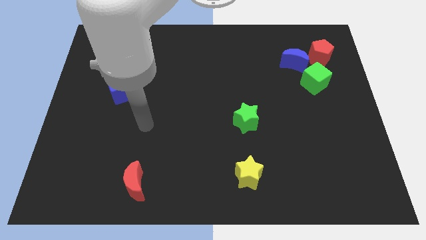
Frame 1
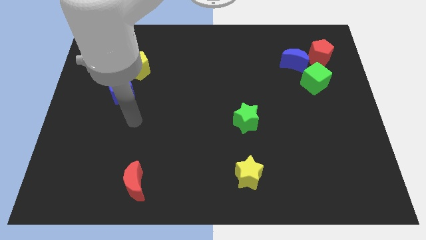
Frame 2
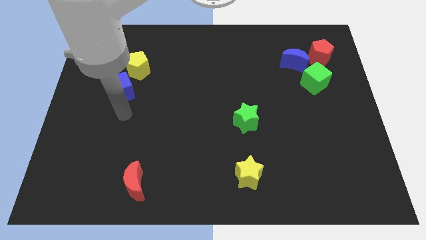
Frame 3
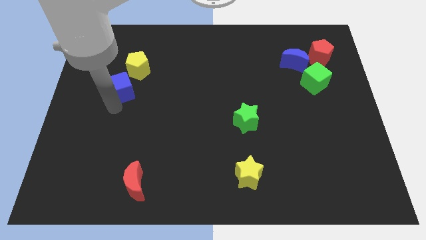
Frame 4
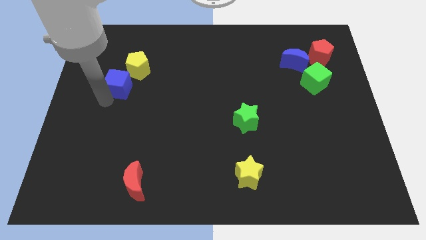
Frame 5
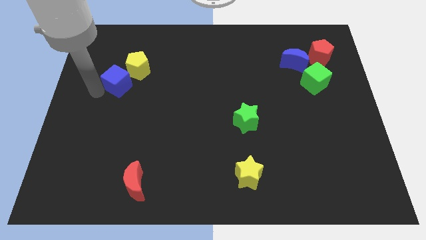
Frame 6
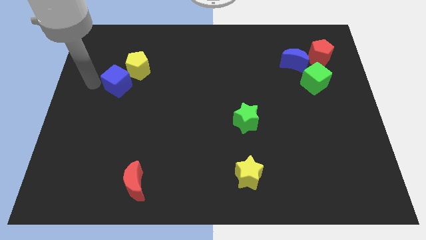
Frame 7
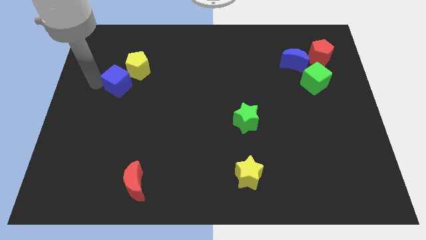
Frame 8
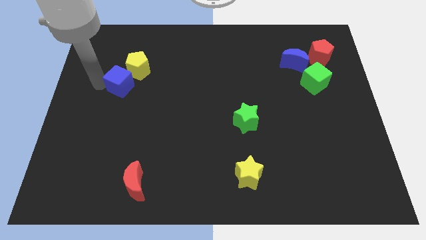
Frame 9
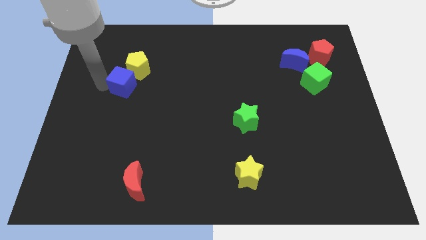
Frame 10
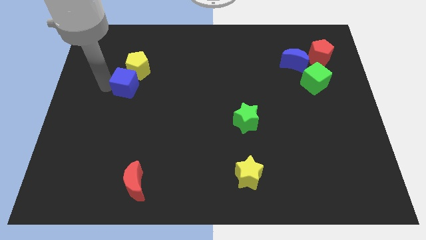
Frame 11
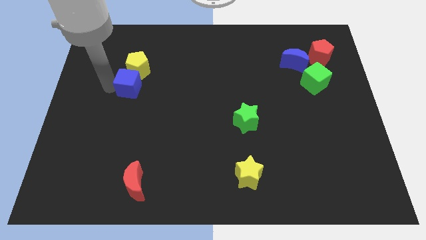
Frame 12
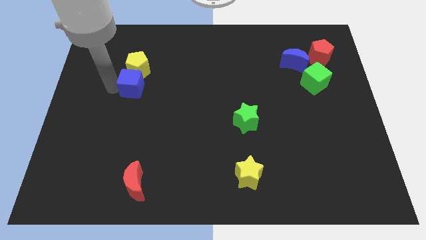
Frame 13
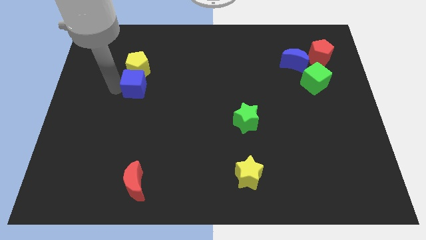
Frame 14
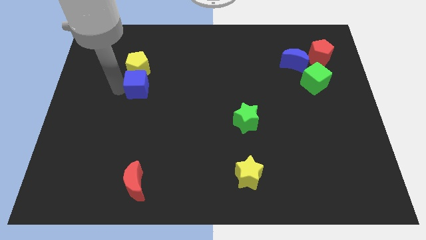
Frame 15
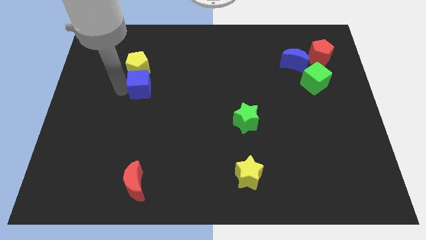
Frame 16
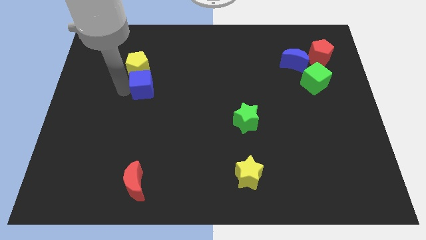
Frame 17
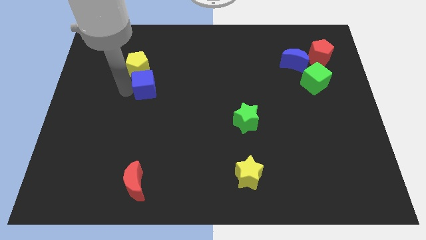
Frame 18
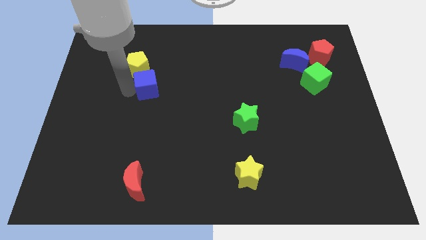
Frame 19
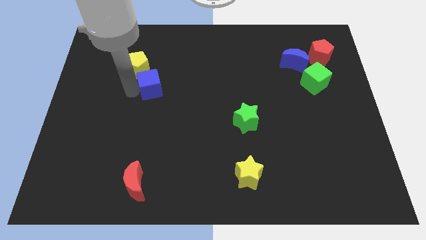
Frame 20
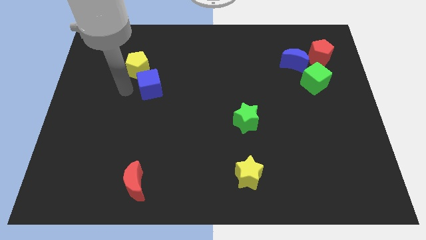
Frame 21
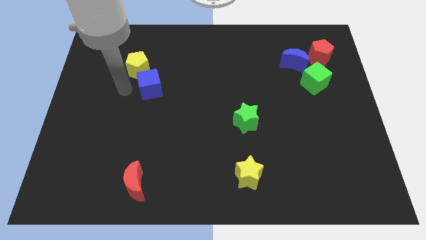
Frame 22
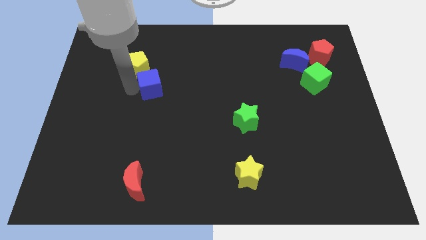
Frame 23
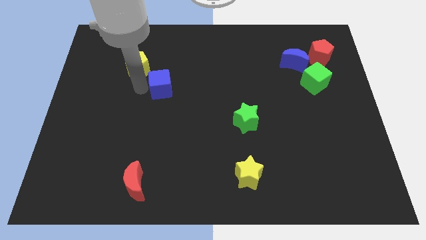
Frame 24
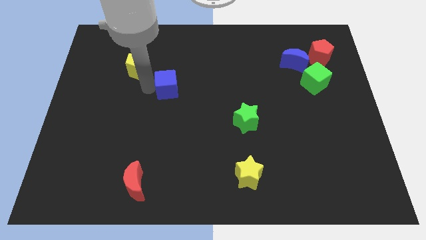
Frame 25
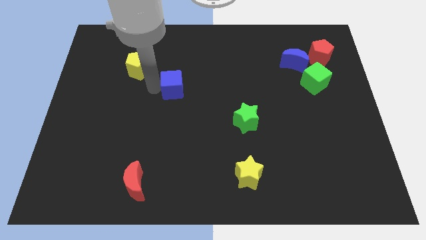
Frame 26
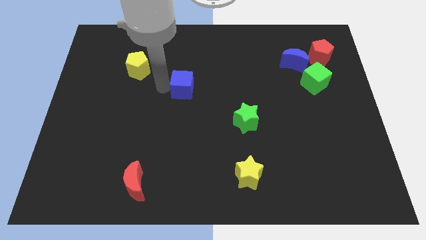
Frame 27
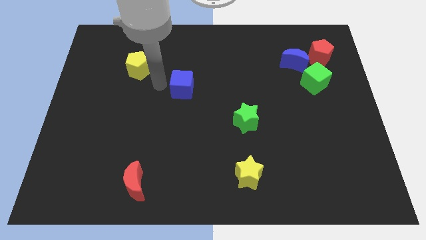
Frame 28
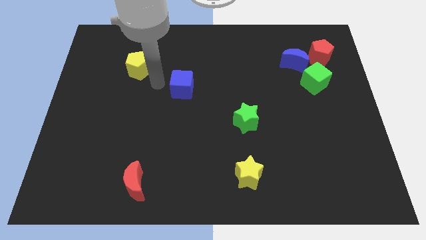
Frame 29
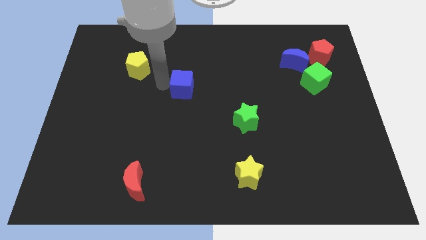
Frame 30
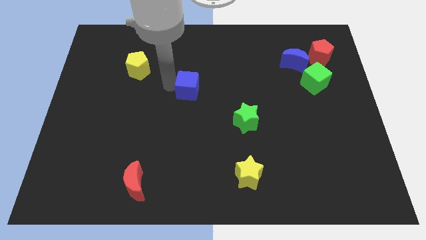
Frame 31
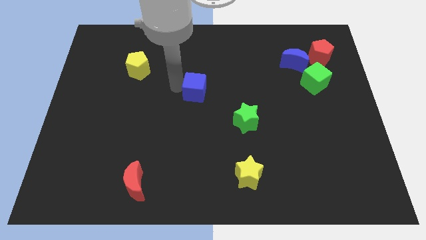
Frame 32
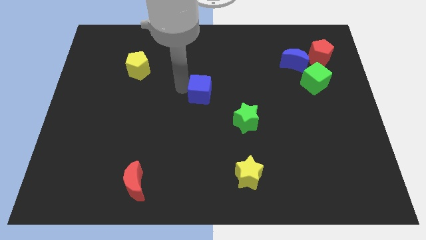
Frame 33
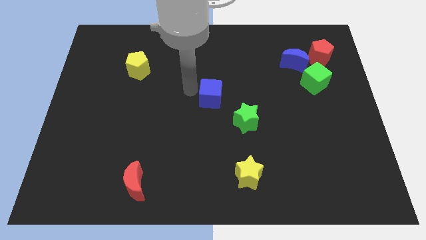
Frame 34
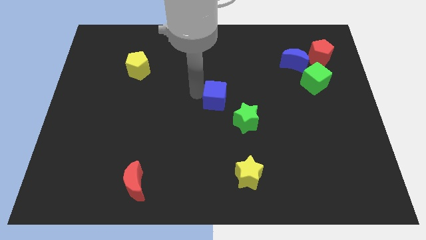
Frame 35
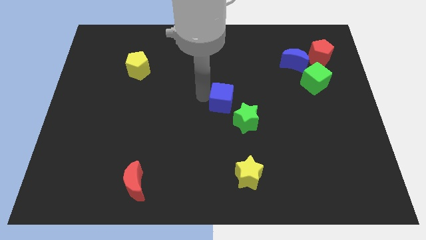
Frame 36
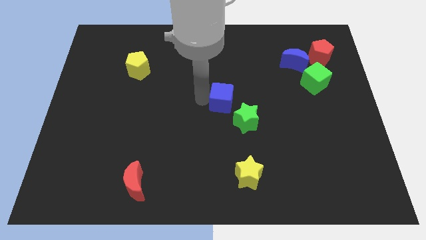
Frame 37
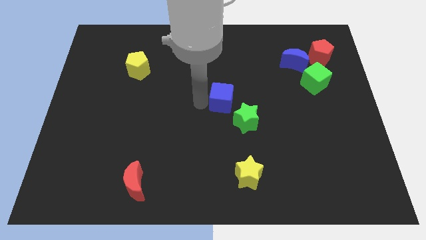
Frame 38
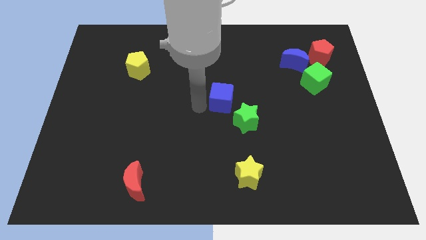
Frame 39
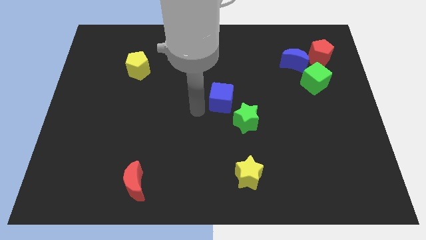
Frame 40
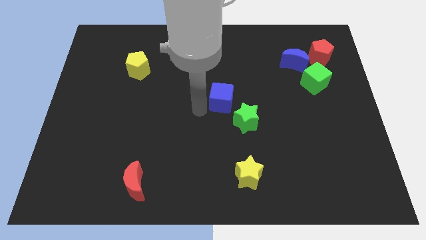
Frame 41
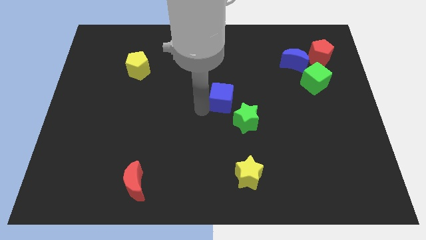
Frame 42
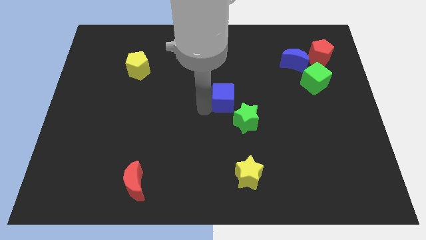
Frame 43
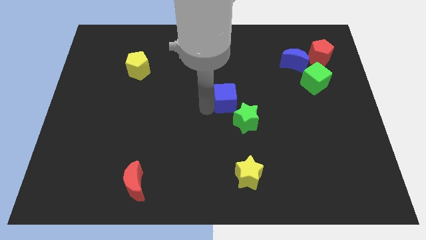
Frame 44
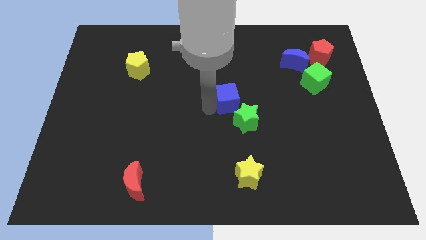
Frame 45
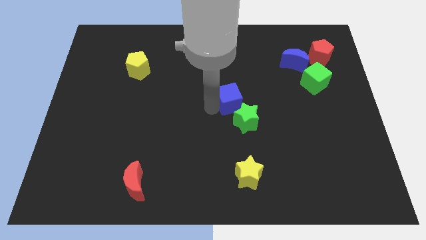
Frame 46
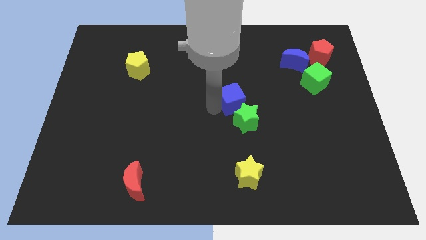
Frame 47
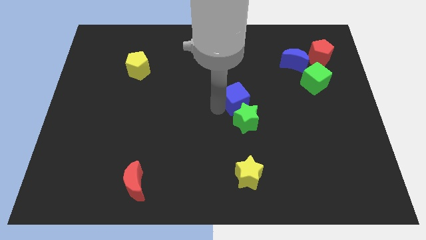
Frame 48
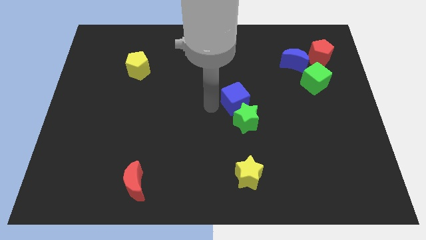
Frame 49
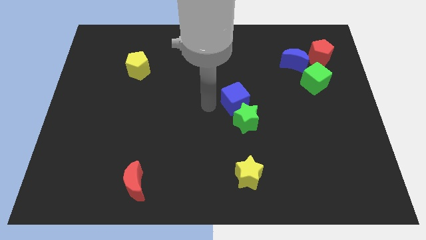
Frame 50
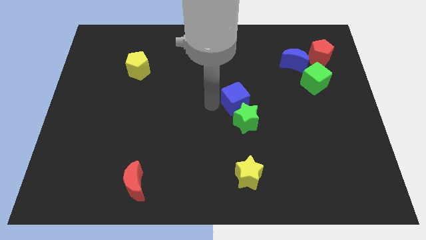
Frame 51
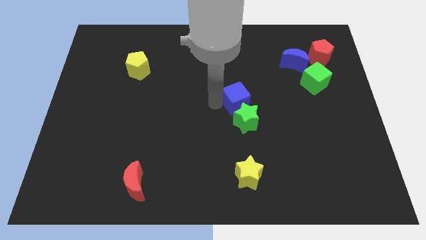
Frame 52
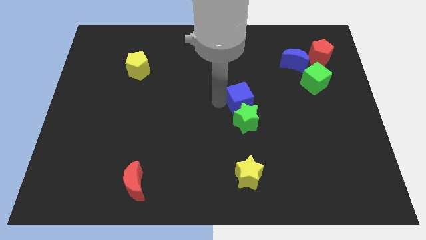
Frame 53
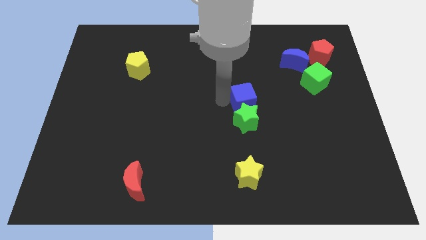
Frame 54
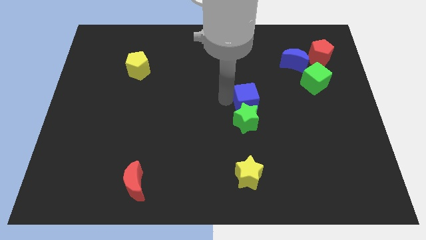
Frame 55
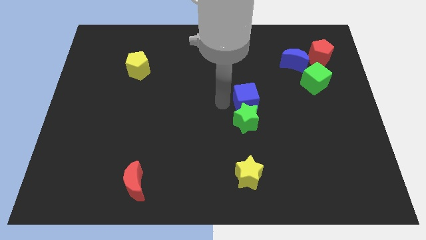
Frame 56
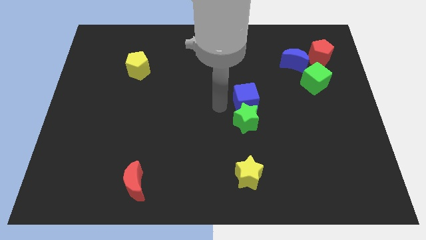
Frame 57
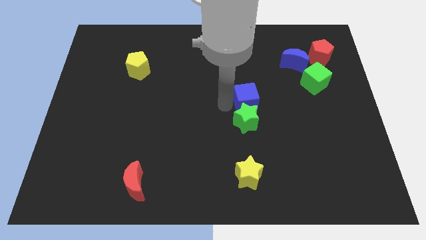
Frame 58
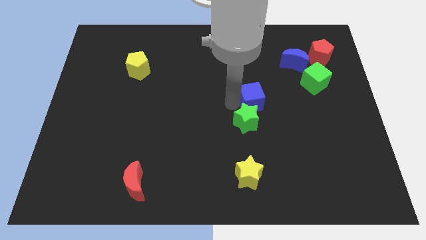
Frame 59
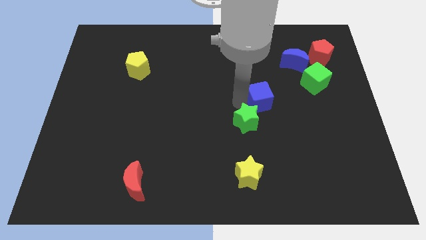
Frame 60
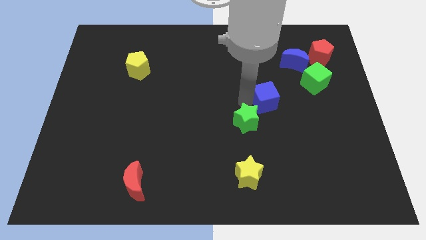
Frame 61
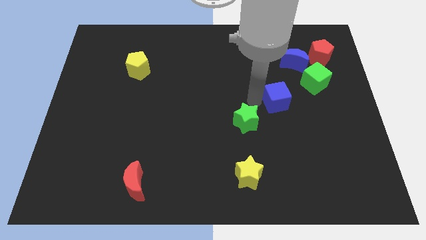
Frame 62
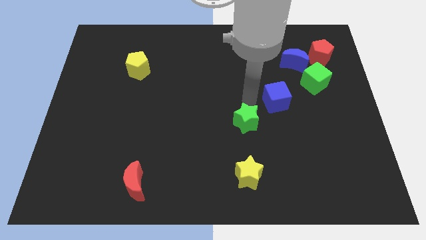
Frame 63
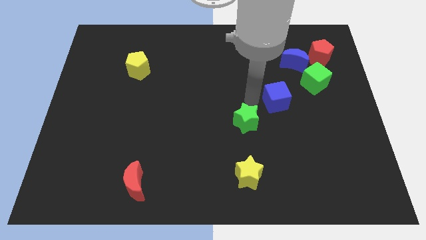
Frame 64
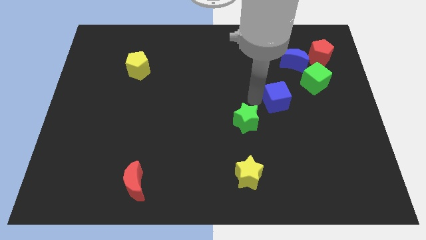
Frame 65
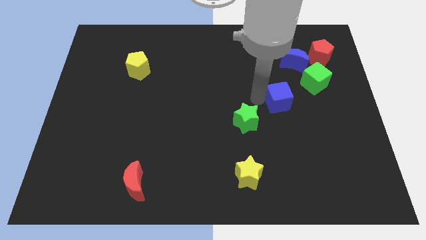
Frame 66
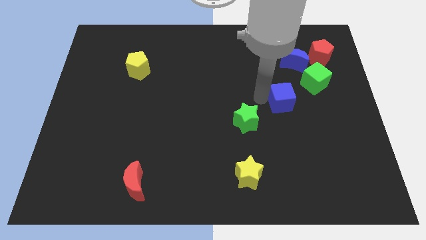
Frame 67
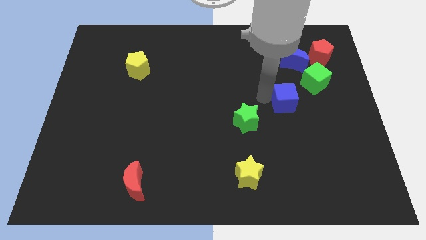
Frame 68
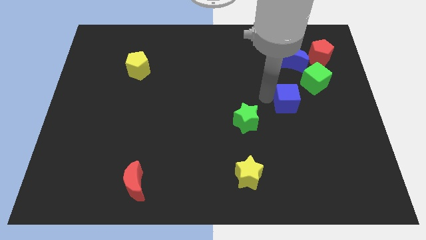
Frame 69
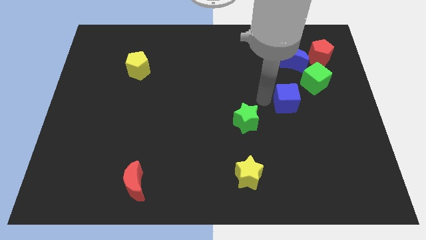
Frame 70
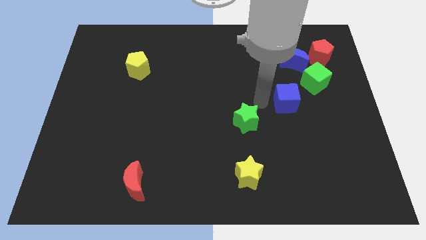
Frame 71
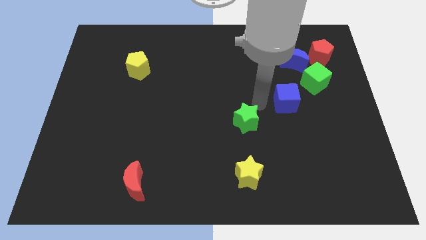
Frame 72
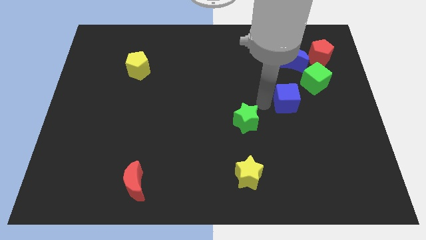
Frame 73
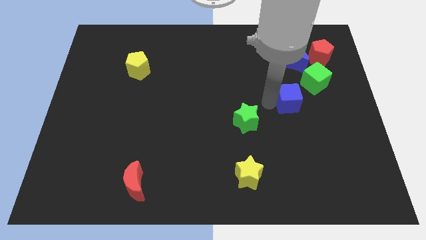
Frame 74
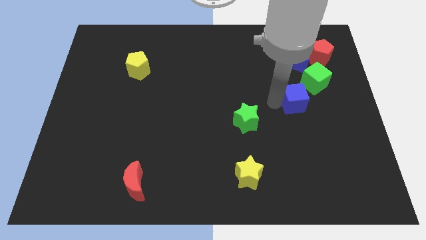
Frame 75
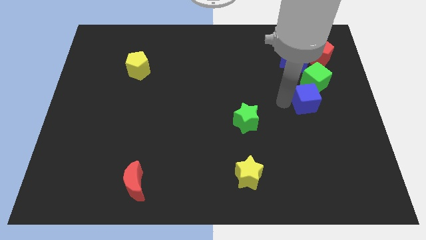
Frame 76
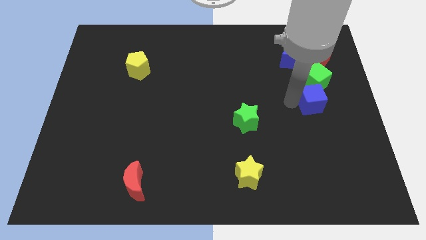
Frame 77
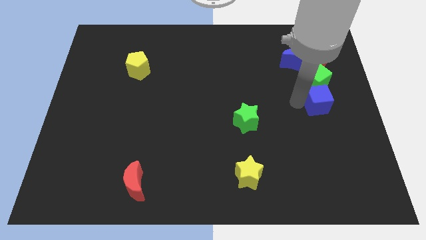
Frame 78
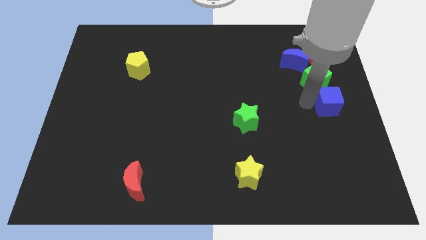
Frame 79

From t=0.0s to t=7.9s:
put the blue cube to the center right

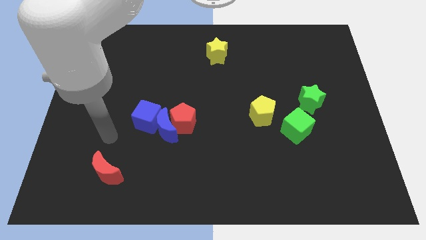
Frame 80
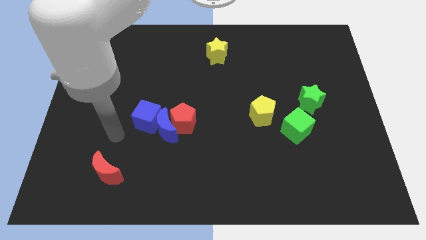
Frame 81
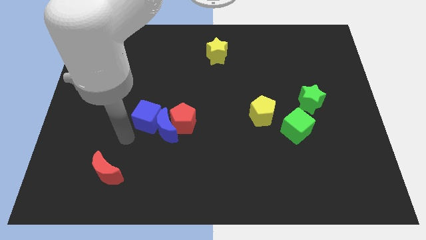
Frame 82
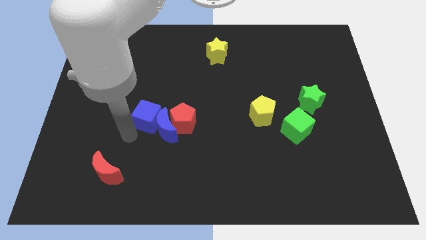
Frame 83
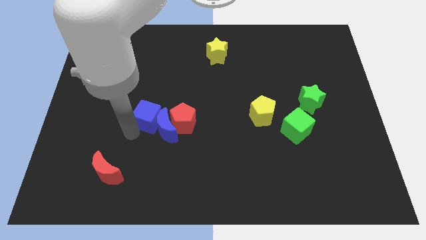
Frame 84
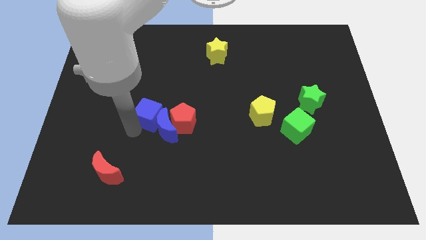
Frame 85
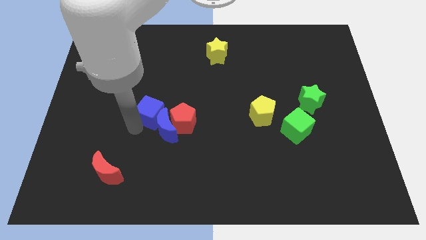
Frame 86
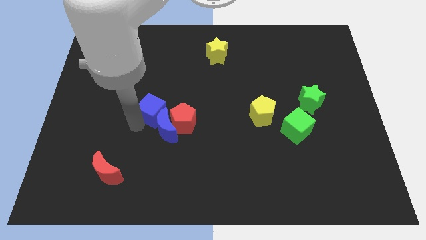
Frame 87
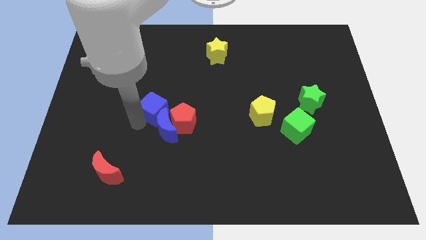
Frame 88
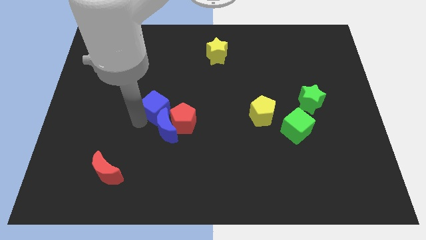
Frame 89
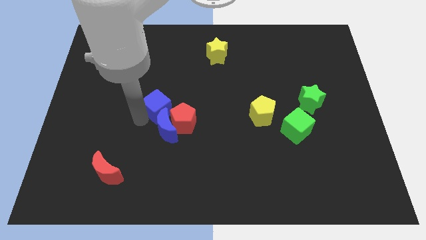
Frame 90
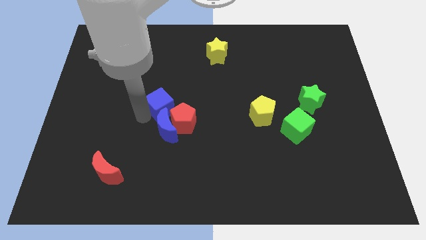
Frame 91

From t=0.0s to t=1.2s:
move the blue cube to the center of the board
